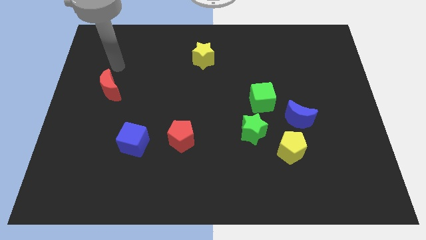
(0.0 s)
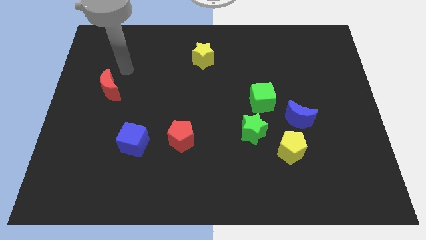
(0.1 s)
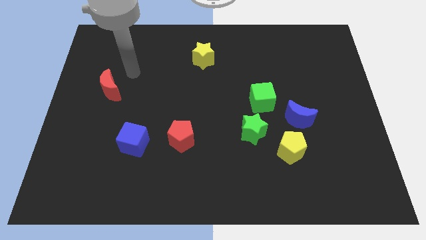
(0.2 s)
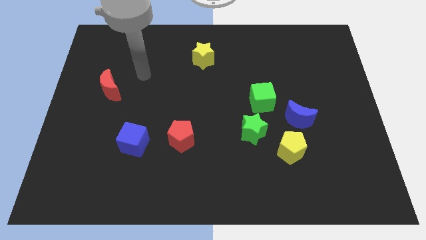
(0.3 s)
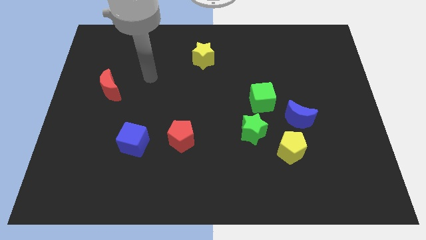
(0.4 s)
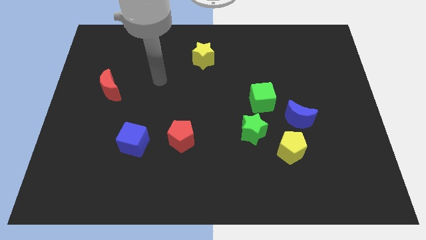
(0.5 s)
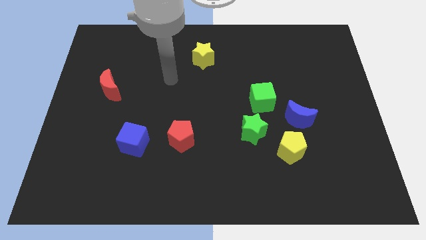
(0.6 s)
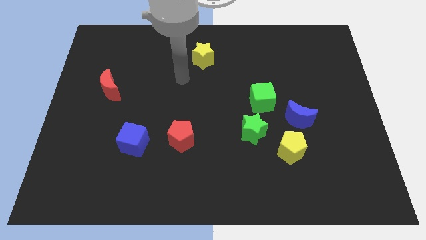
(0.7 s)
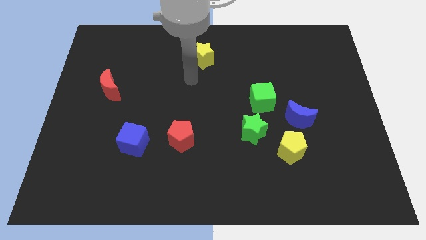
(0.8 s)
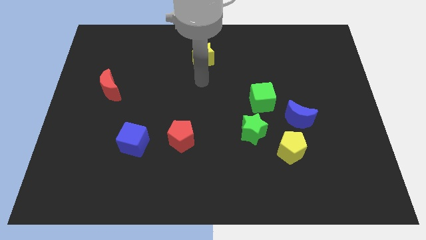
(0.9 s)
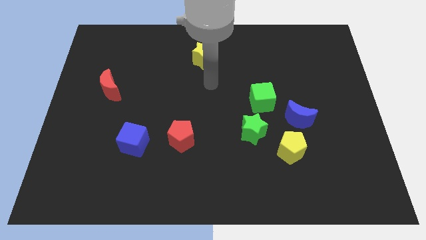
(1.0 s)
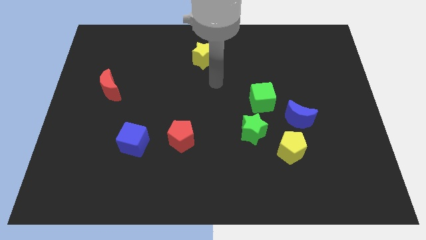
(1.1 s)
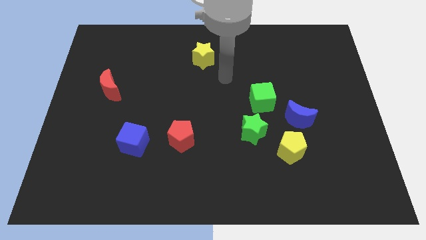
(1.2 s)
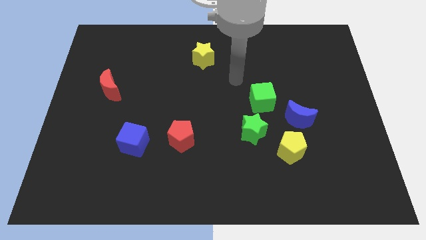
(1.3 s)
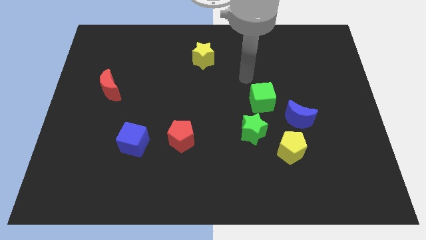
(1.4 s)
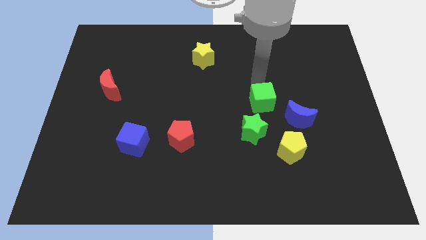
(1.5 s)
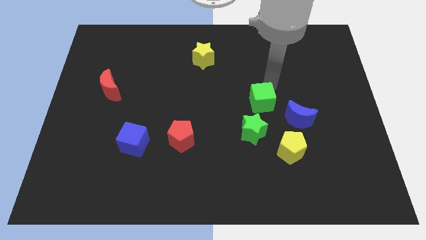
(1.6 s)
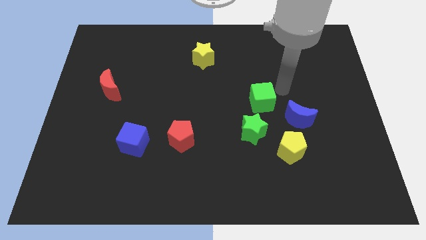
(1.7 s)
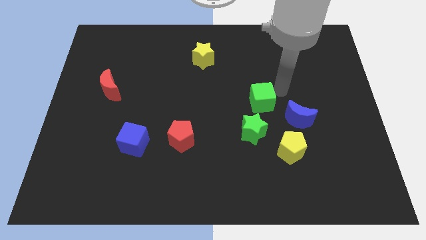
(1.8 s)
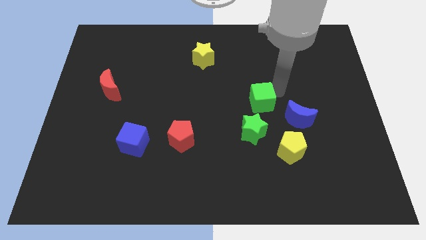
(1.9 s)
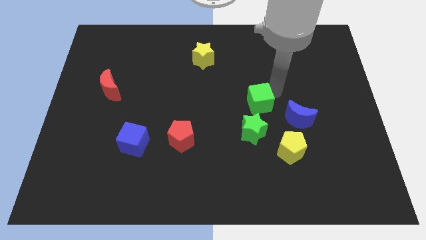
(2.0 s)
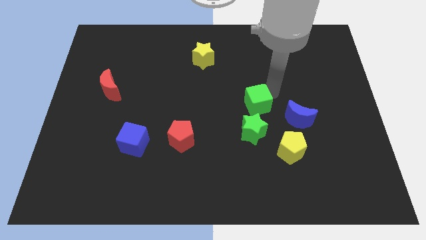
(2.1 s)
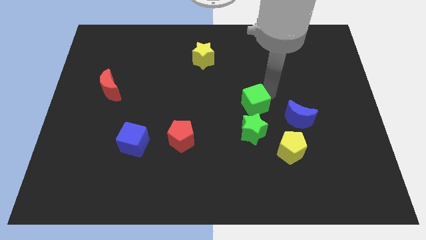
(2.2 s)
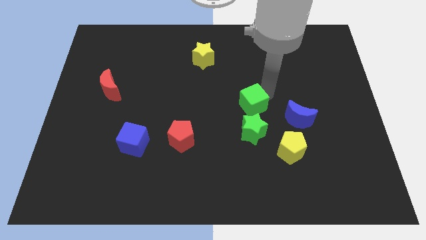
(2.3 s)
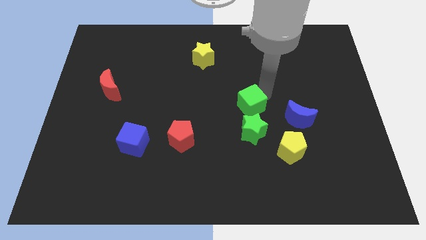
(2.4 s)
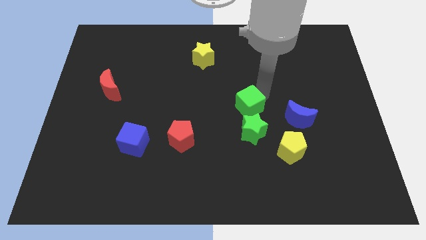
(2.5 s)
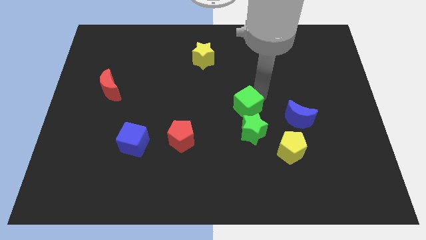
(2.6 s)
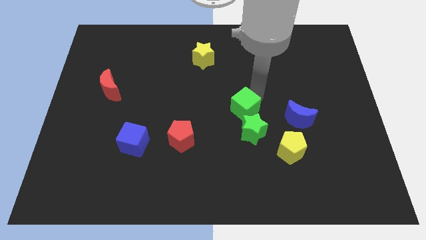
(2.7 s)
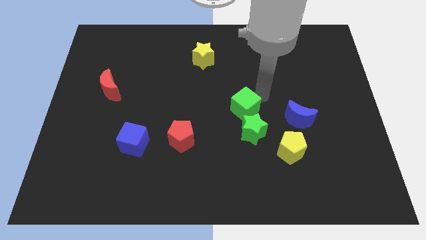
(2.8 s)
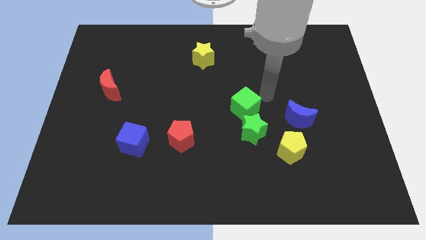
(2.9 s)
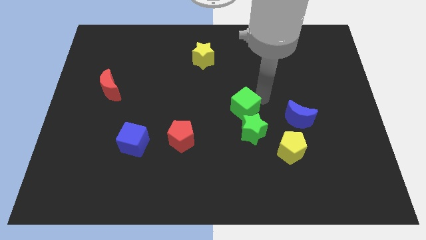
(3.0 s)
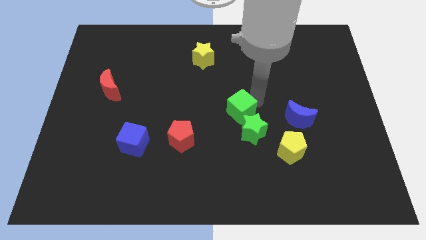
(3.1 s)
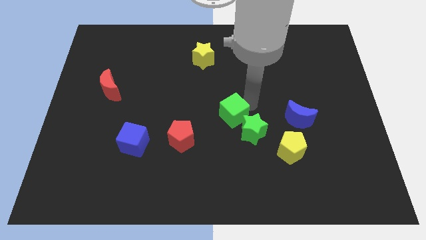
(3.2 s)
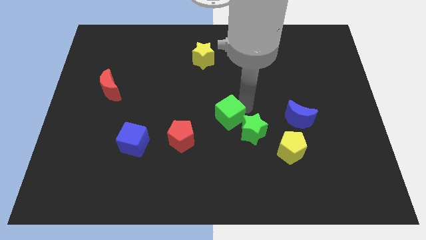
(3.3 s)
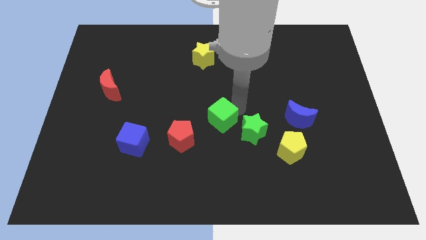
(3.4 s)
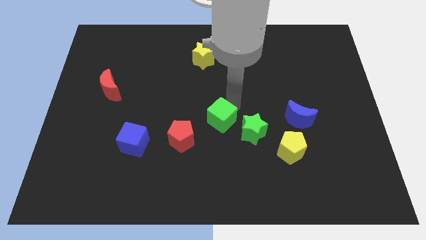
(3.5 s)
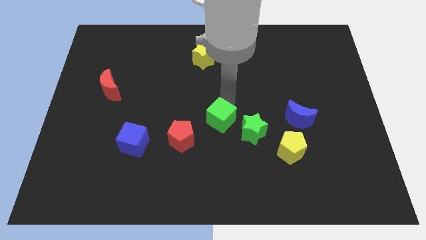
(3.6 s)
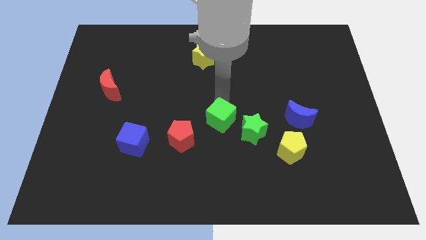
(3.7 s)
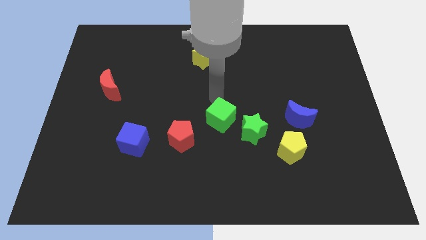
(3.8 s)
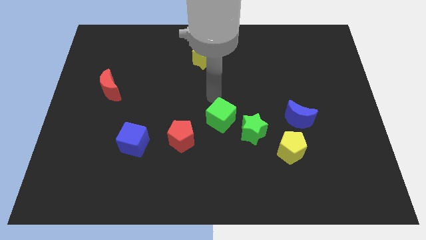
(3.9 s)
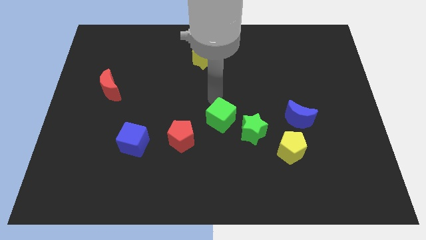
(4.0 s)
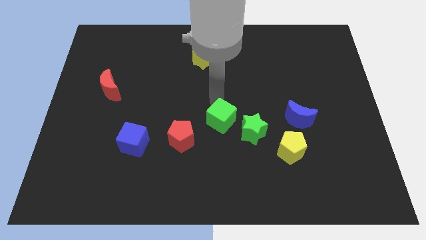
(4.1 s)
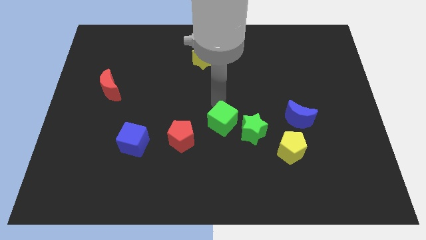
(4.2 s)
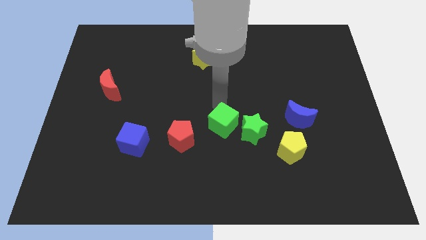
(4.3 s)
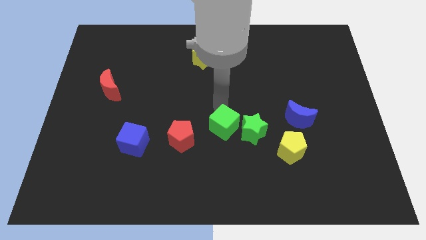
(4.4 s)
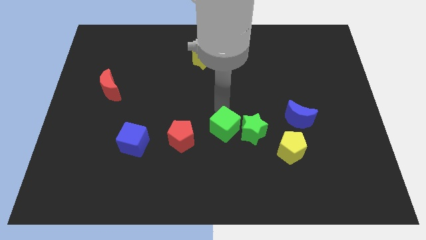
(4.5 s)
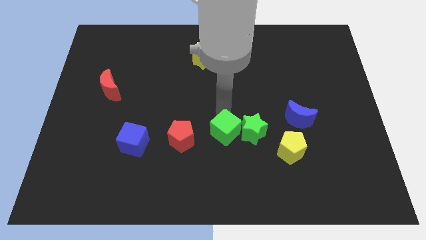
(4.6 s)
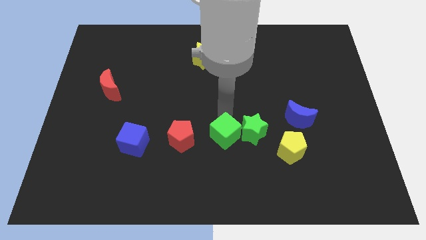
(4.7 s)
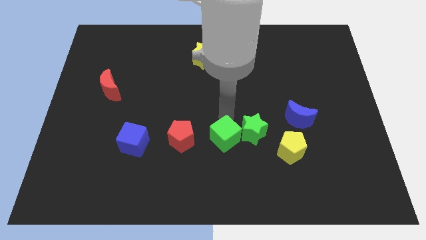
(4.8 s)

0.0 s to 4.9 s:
move the green cube downwards a bit

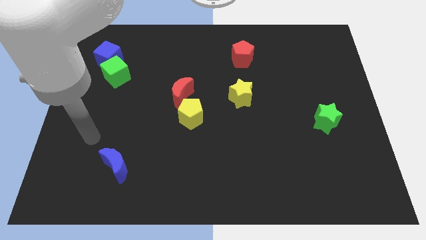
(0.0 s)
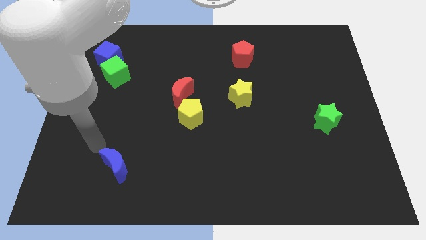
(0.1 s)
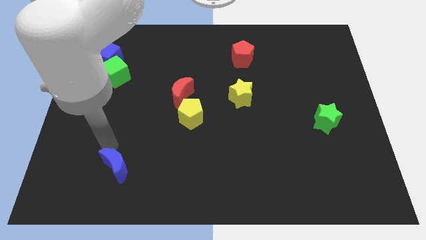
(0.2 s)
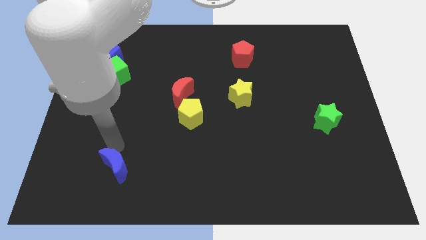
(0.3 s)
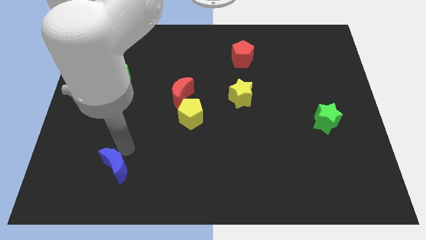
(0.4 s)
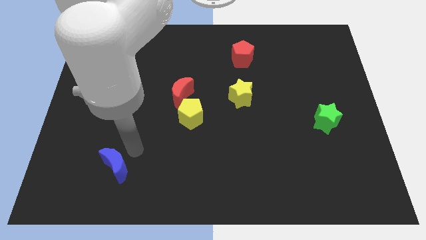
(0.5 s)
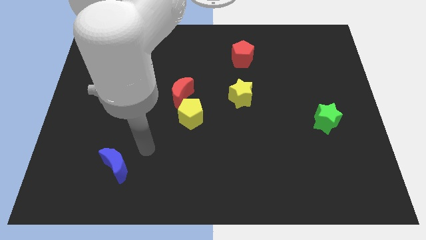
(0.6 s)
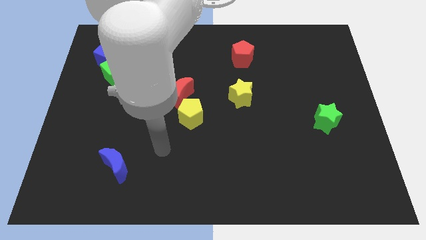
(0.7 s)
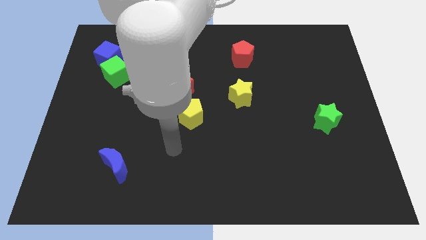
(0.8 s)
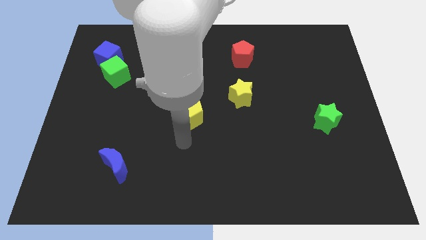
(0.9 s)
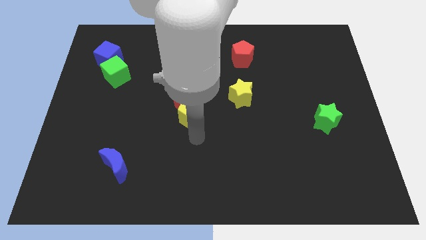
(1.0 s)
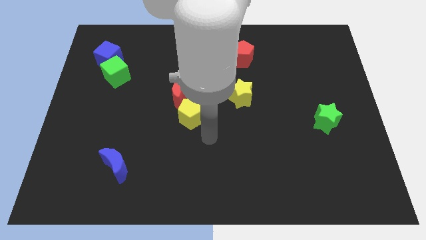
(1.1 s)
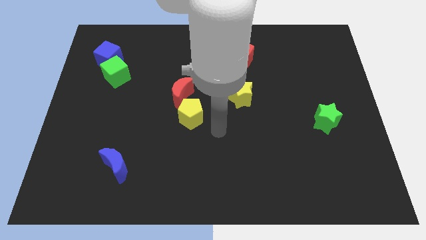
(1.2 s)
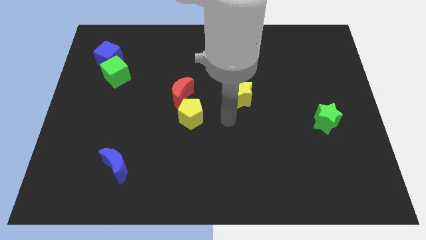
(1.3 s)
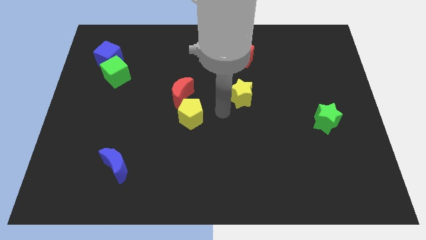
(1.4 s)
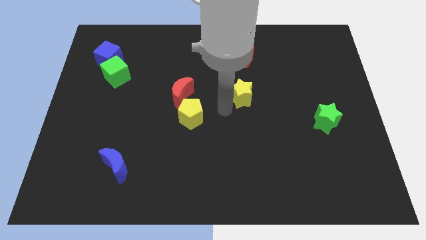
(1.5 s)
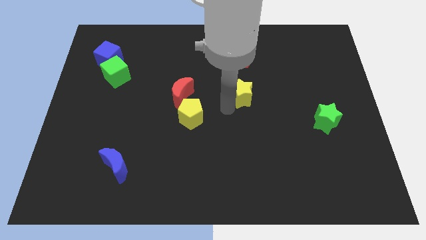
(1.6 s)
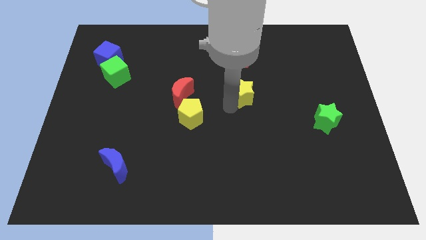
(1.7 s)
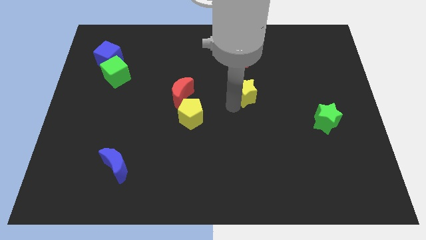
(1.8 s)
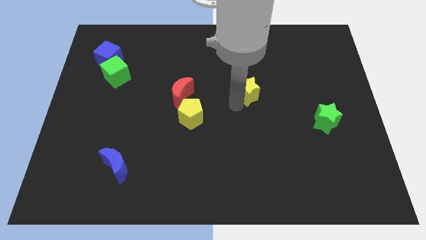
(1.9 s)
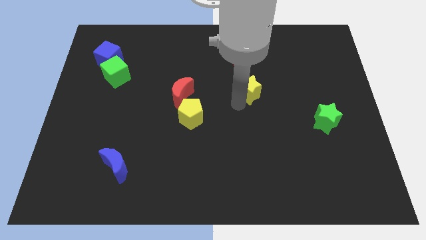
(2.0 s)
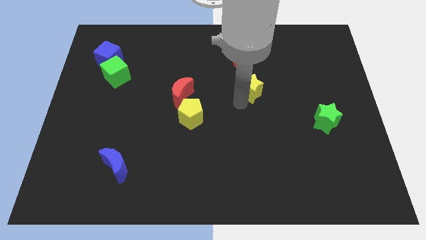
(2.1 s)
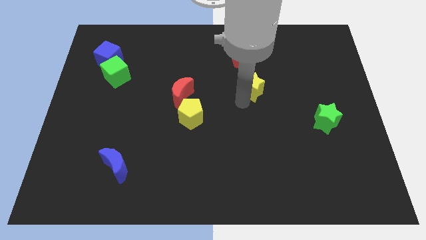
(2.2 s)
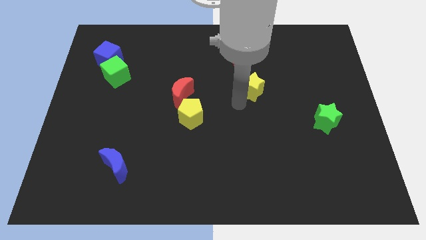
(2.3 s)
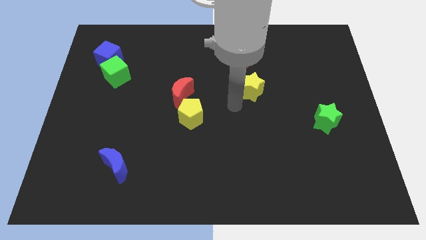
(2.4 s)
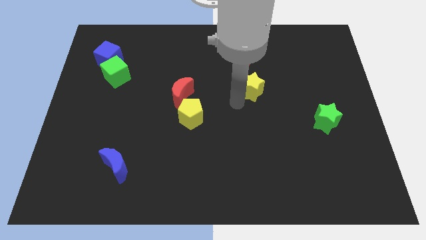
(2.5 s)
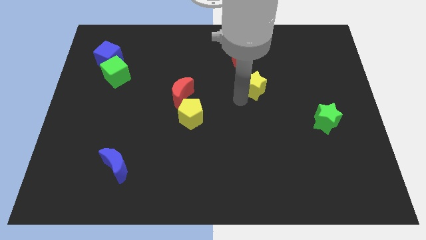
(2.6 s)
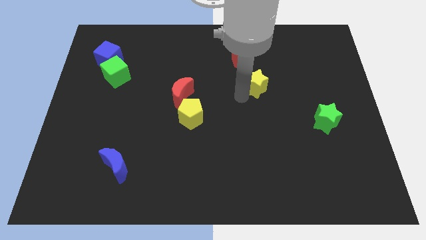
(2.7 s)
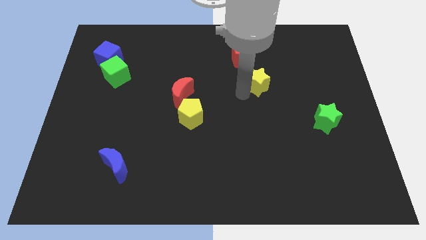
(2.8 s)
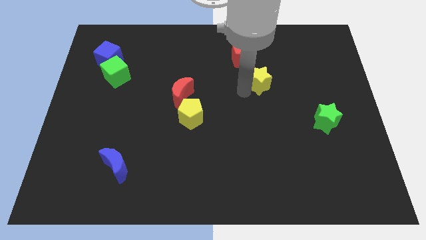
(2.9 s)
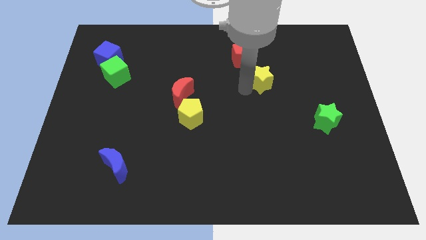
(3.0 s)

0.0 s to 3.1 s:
slightly push the yellow star upwards and then right
